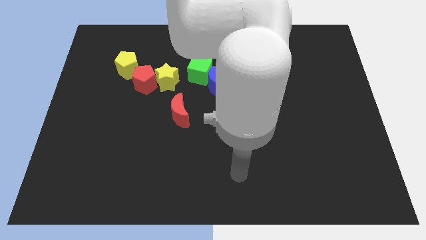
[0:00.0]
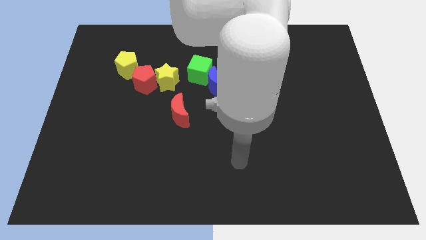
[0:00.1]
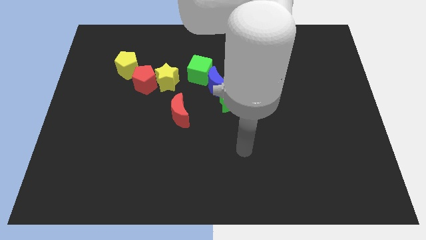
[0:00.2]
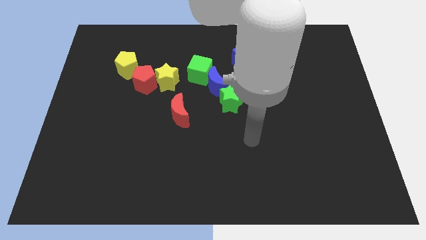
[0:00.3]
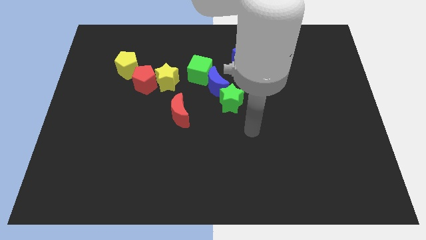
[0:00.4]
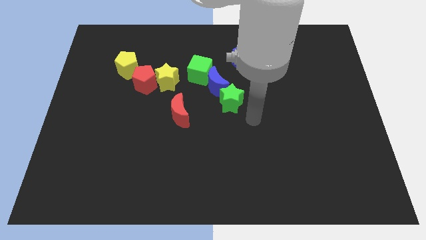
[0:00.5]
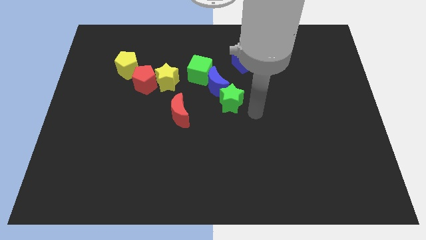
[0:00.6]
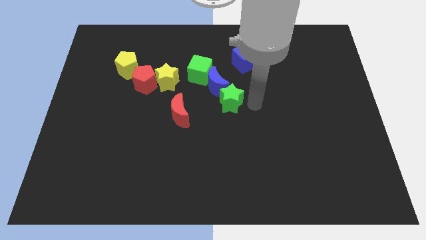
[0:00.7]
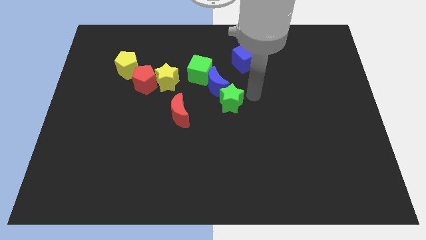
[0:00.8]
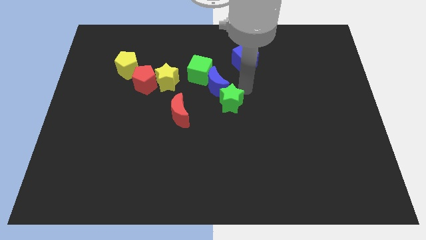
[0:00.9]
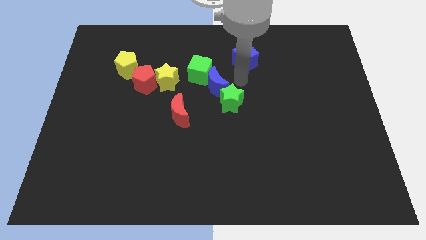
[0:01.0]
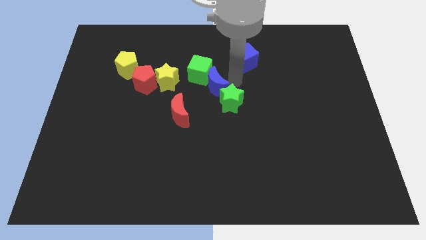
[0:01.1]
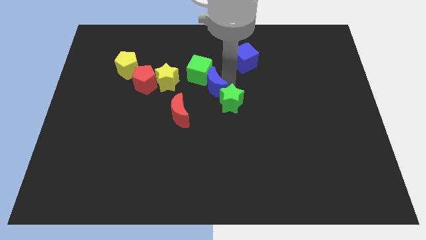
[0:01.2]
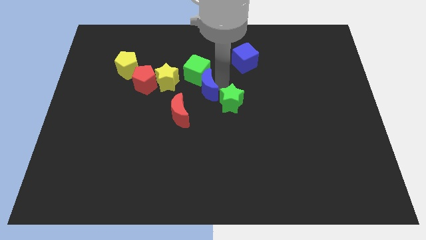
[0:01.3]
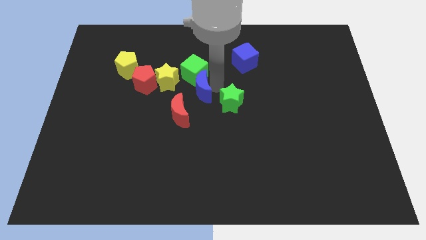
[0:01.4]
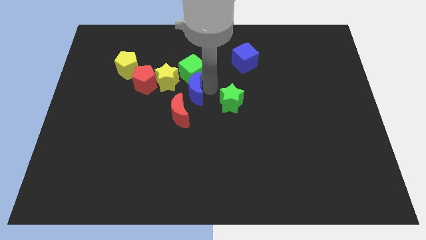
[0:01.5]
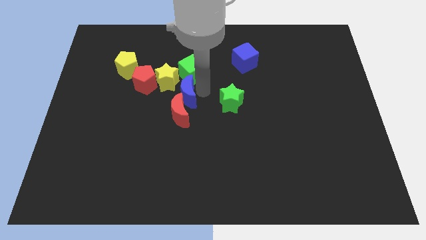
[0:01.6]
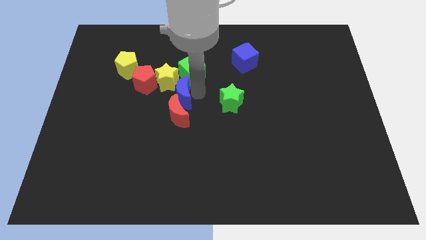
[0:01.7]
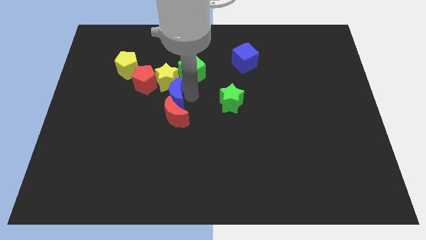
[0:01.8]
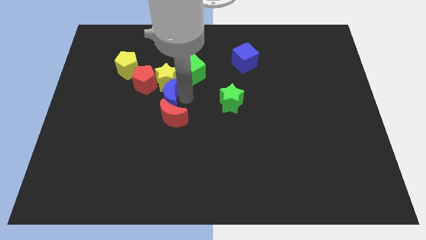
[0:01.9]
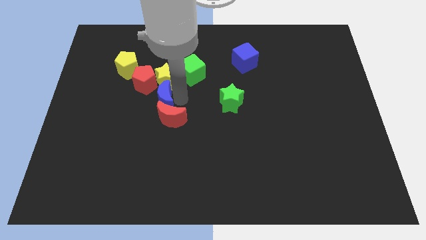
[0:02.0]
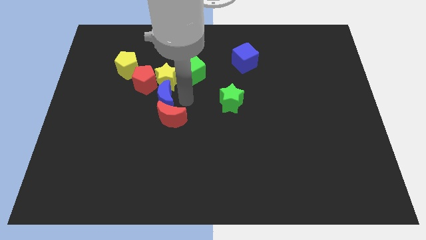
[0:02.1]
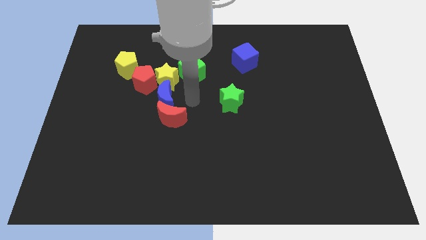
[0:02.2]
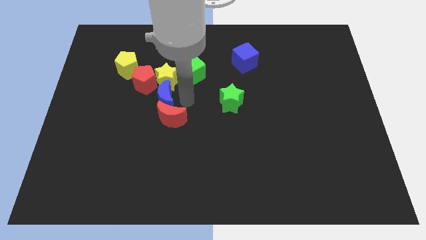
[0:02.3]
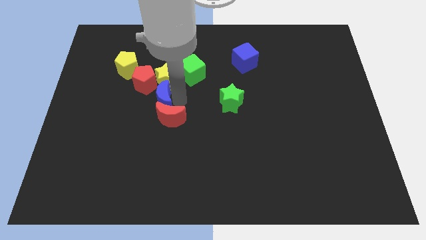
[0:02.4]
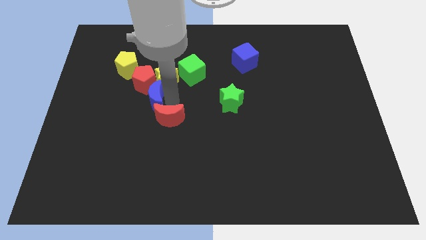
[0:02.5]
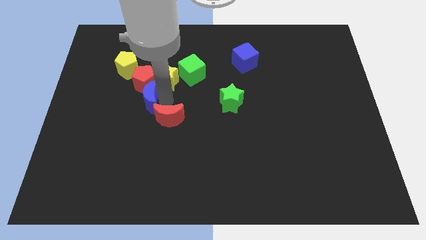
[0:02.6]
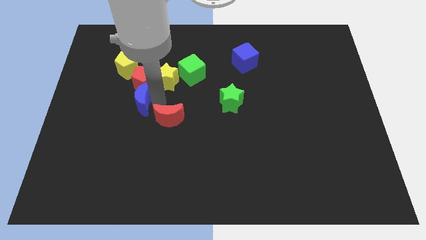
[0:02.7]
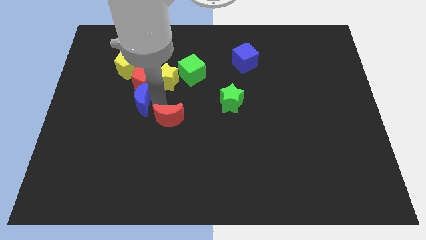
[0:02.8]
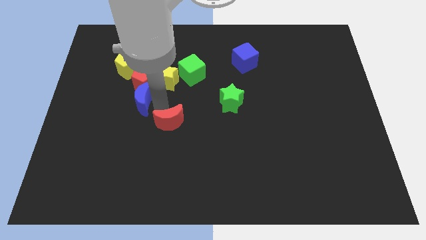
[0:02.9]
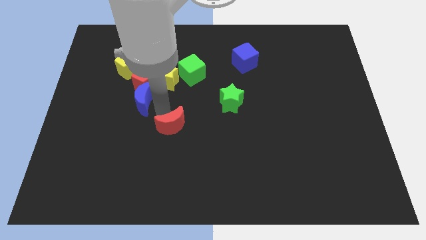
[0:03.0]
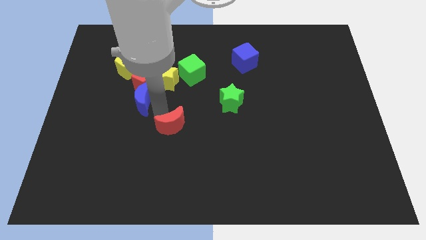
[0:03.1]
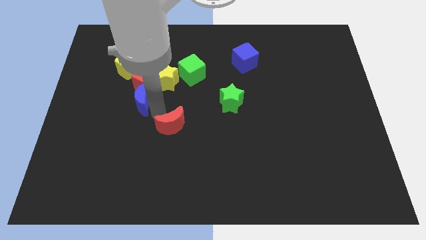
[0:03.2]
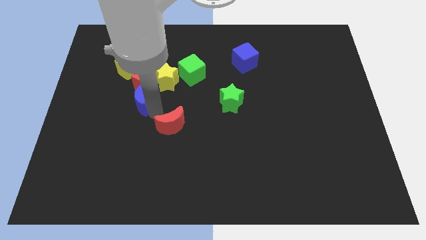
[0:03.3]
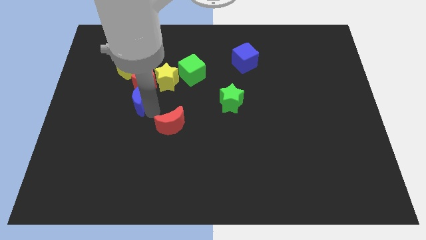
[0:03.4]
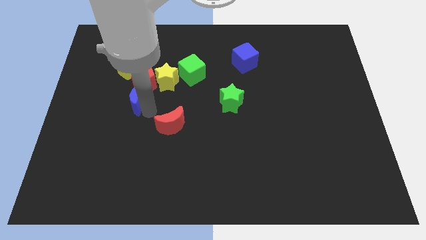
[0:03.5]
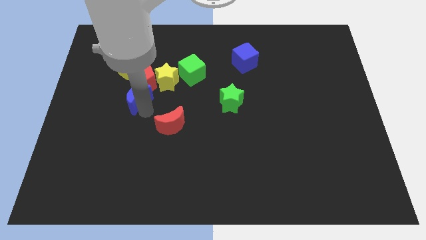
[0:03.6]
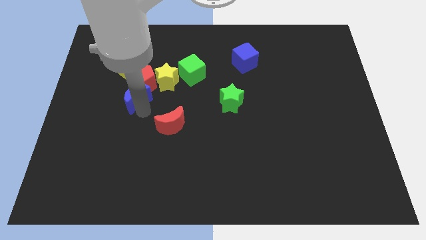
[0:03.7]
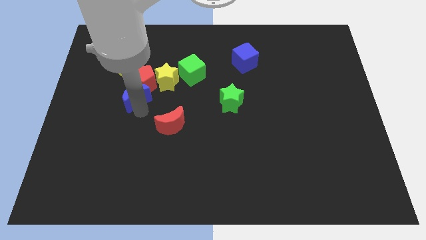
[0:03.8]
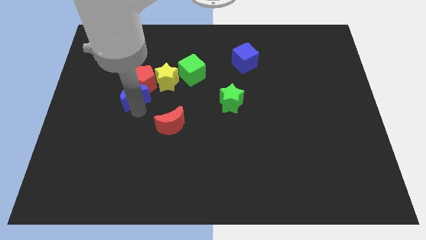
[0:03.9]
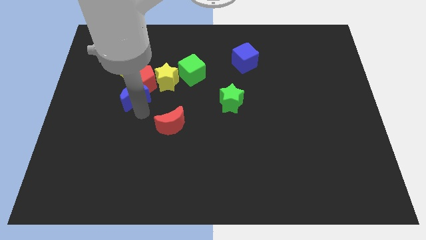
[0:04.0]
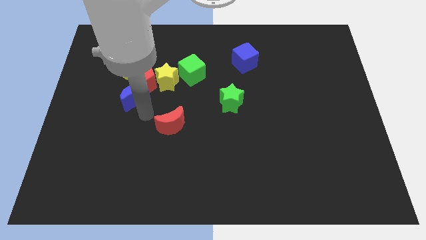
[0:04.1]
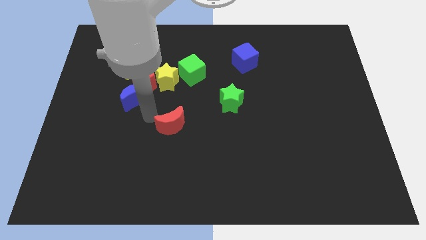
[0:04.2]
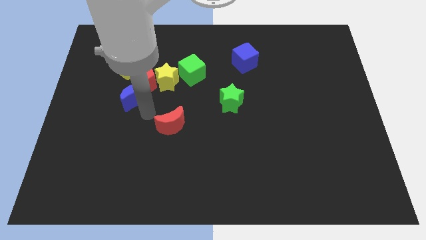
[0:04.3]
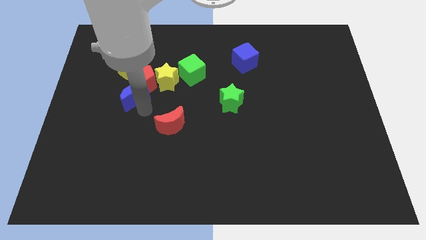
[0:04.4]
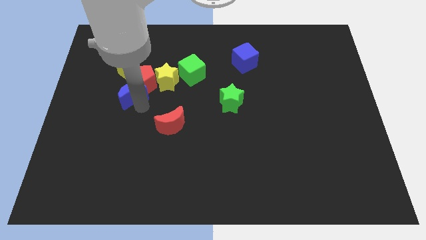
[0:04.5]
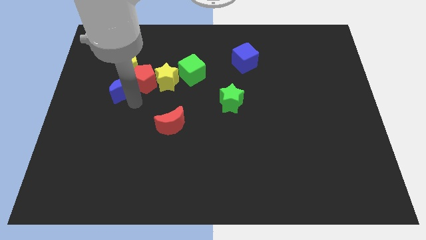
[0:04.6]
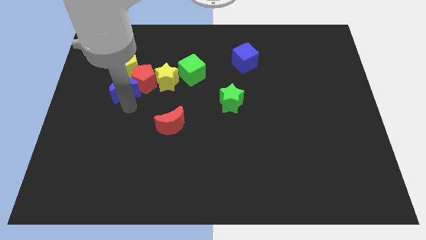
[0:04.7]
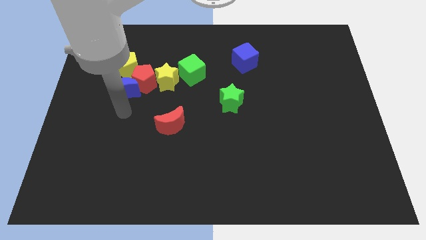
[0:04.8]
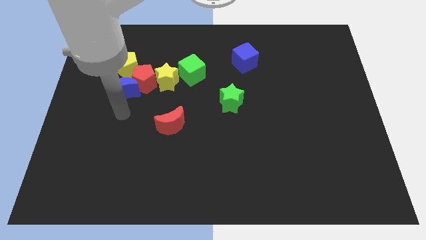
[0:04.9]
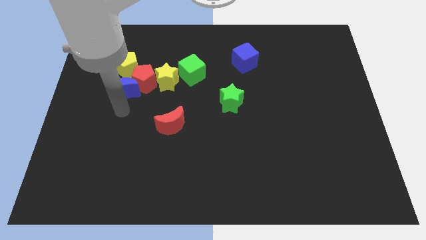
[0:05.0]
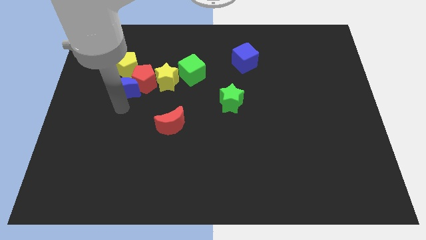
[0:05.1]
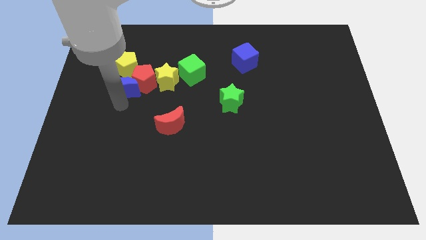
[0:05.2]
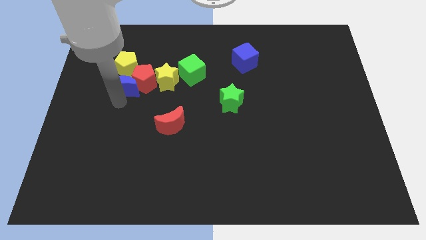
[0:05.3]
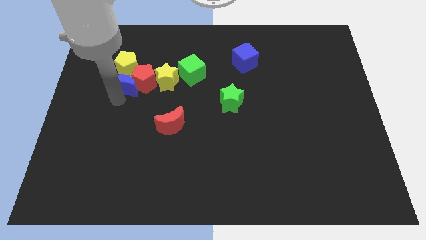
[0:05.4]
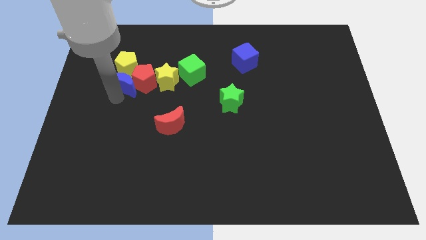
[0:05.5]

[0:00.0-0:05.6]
move the blue moon next to the yellow pentagon

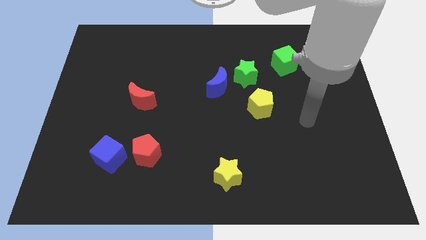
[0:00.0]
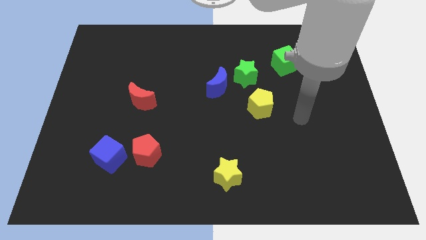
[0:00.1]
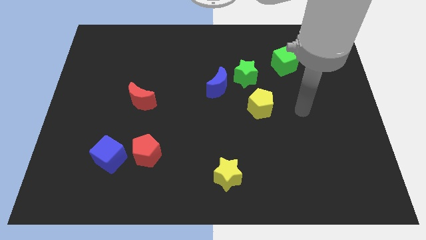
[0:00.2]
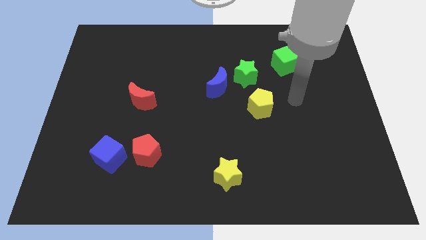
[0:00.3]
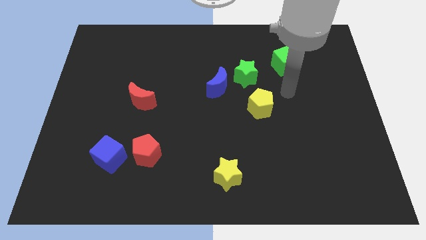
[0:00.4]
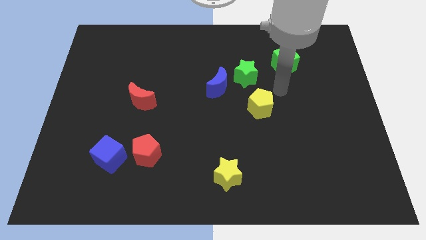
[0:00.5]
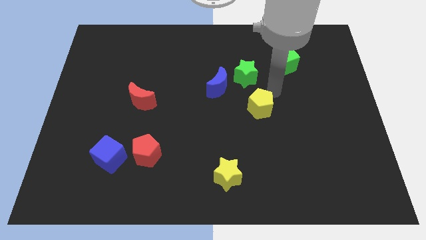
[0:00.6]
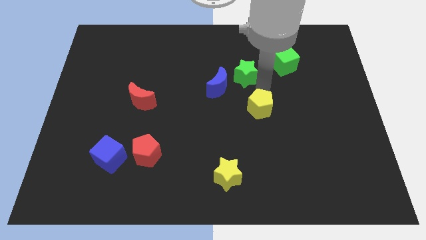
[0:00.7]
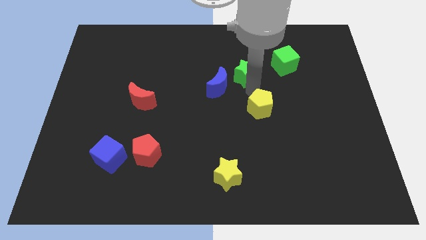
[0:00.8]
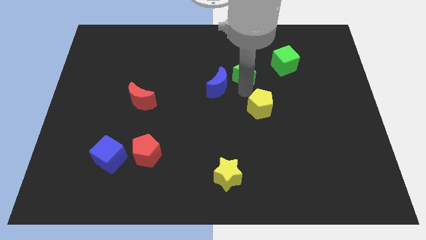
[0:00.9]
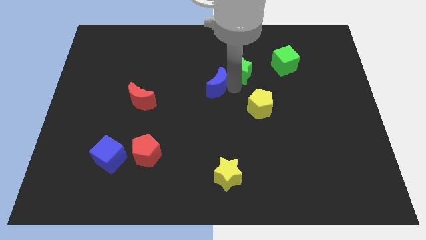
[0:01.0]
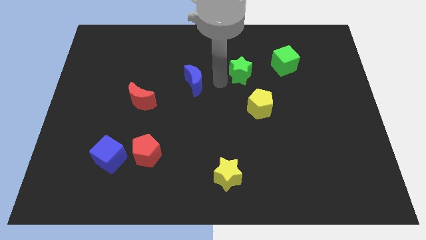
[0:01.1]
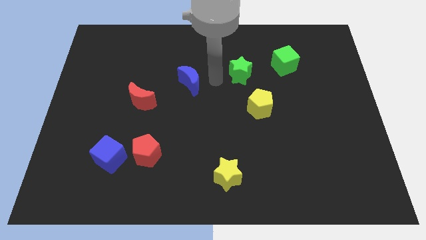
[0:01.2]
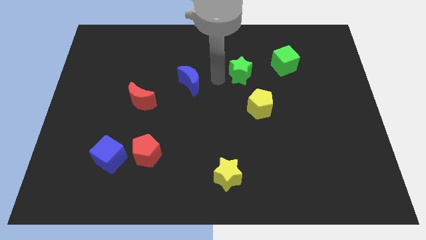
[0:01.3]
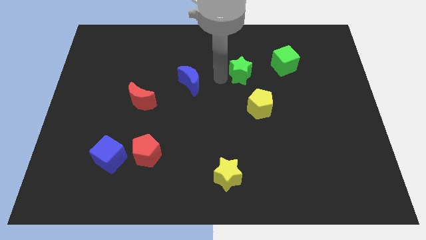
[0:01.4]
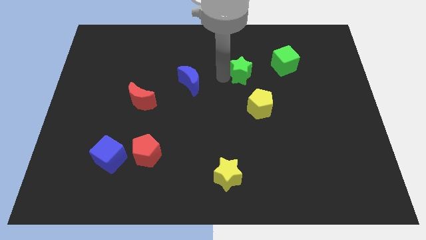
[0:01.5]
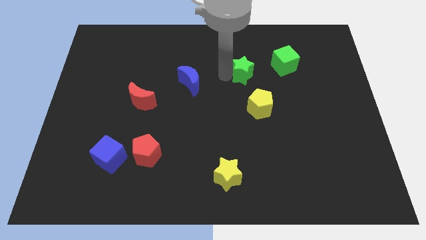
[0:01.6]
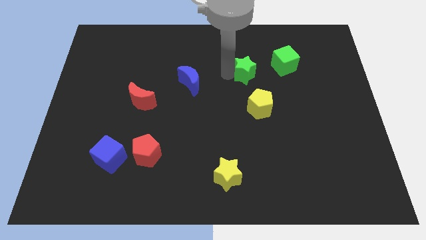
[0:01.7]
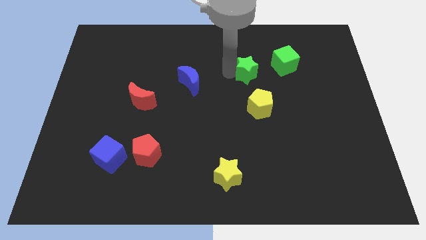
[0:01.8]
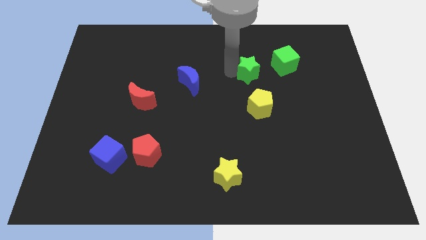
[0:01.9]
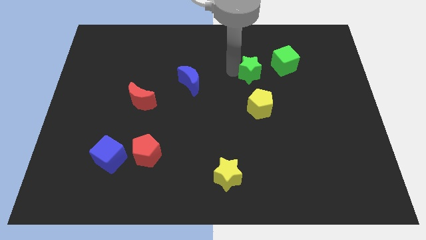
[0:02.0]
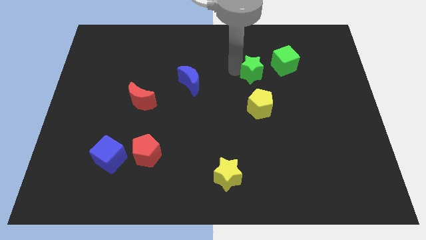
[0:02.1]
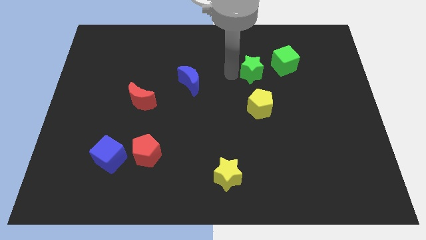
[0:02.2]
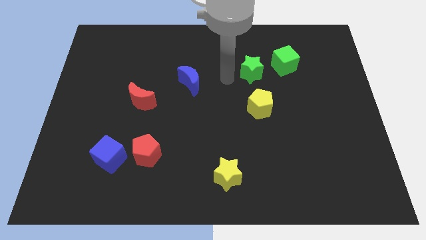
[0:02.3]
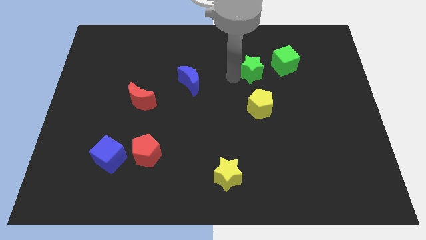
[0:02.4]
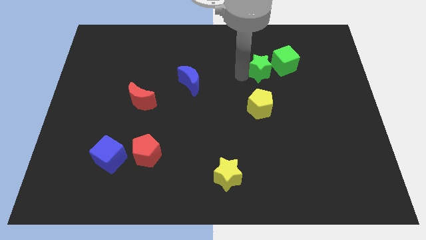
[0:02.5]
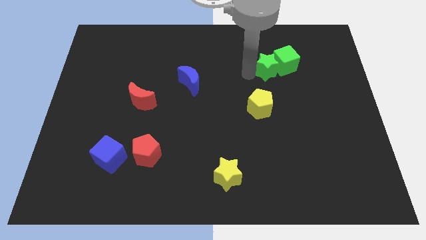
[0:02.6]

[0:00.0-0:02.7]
move the green star to the green cube
